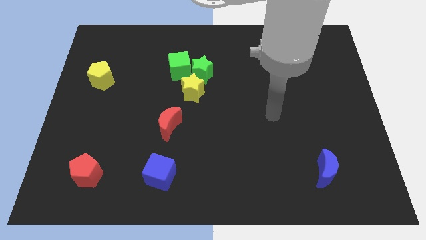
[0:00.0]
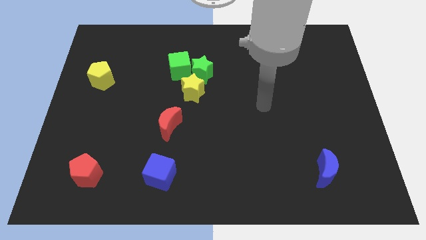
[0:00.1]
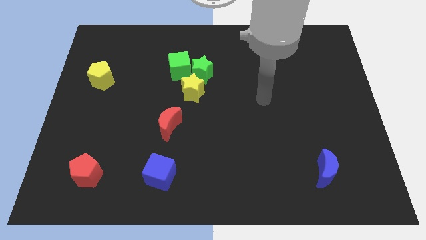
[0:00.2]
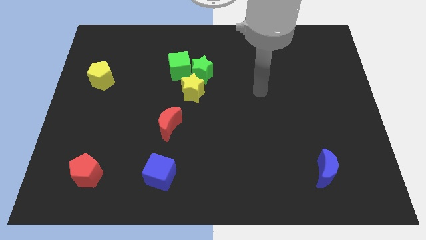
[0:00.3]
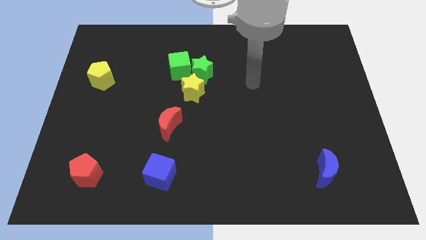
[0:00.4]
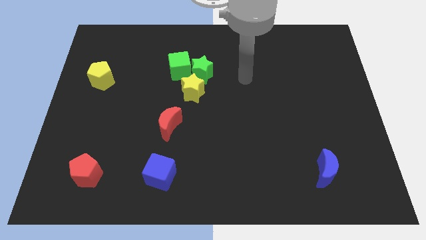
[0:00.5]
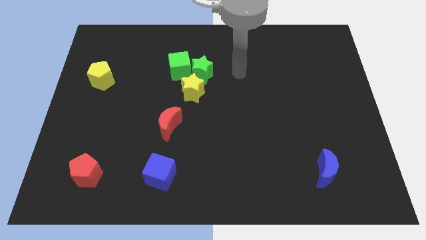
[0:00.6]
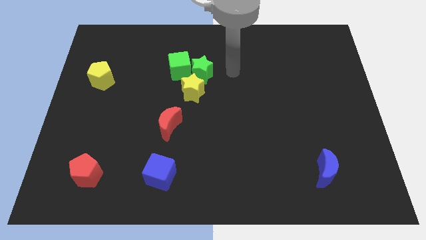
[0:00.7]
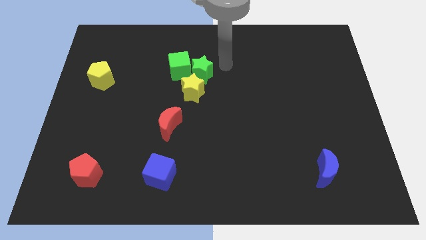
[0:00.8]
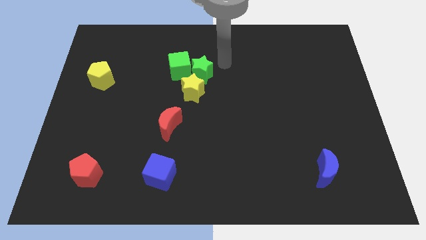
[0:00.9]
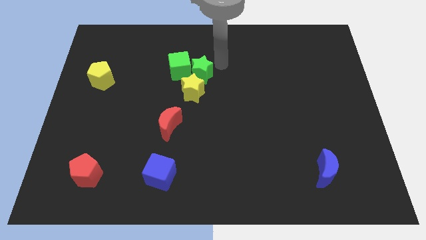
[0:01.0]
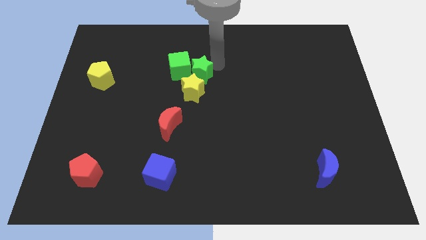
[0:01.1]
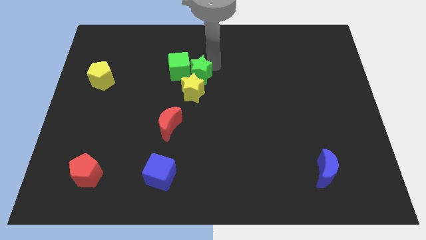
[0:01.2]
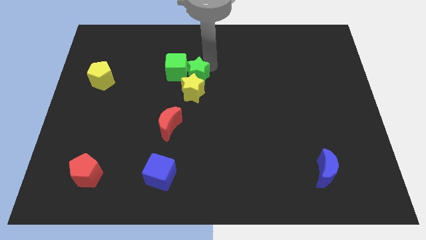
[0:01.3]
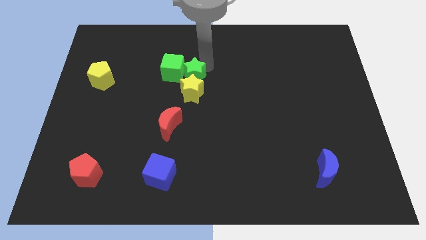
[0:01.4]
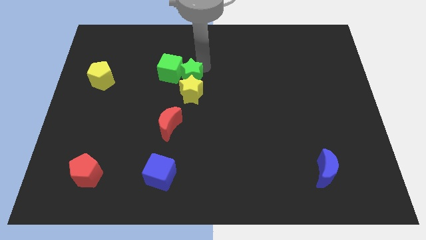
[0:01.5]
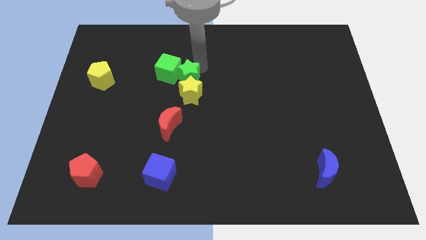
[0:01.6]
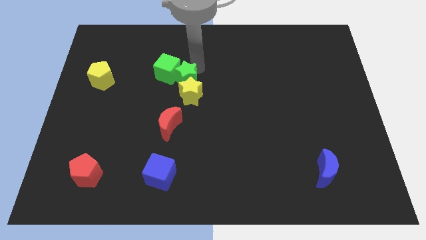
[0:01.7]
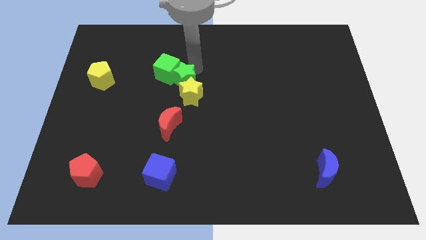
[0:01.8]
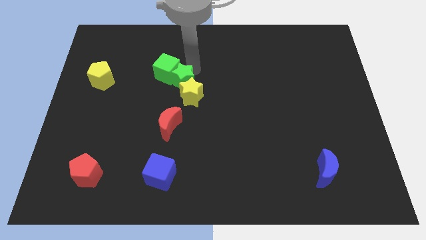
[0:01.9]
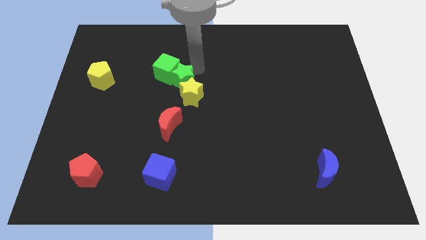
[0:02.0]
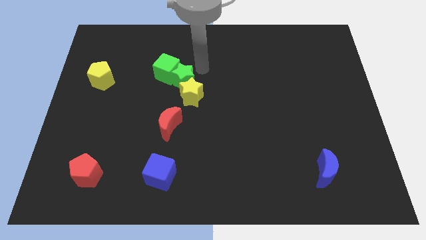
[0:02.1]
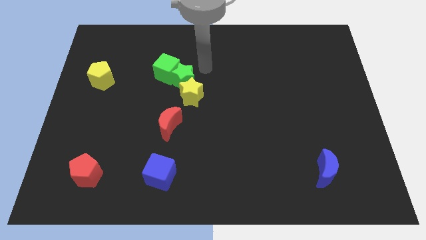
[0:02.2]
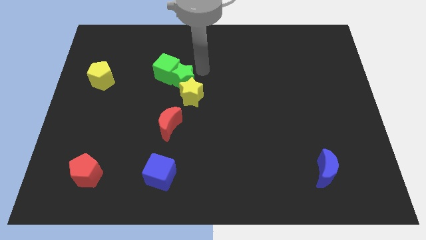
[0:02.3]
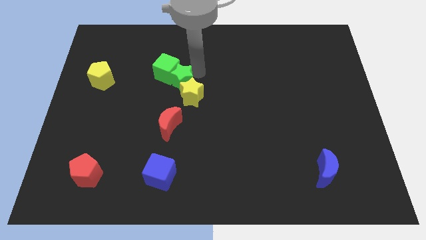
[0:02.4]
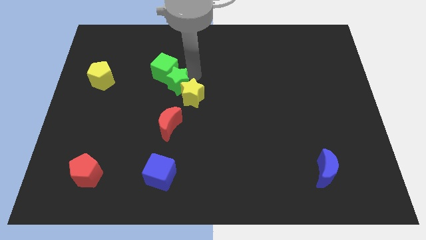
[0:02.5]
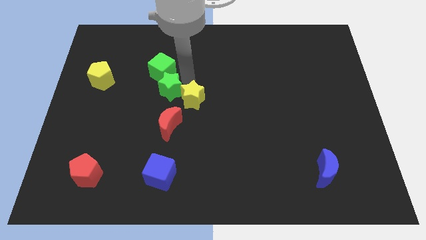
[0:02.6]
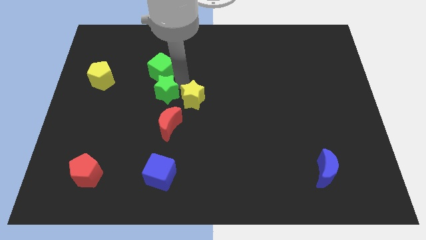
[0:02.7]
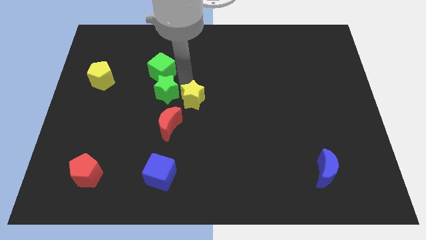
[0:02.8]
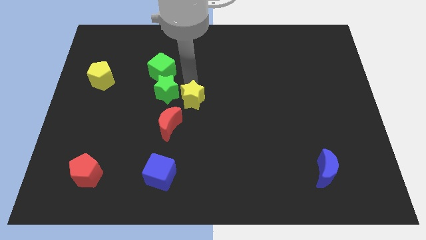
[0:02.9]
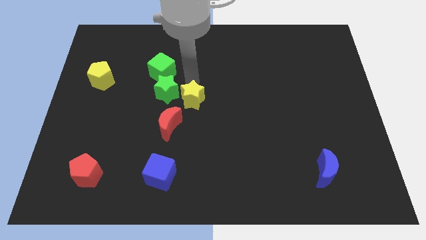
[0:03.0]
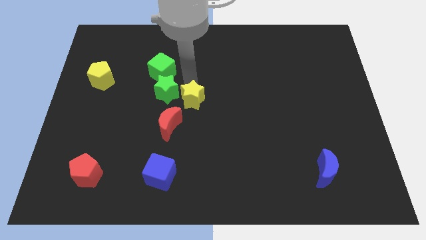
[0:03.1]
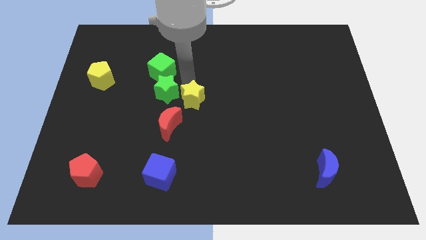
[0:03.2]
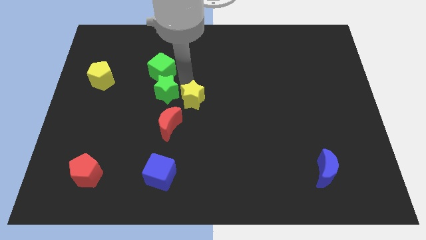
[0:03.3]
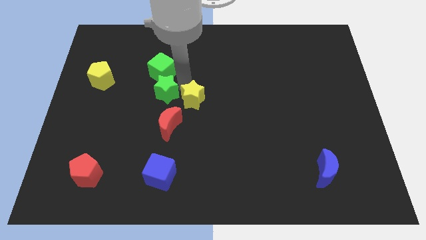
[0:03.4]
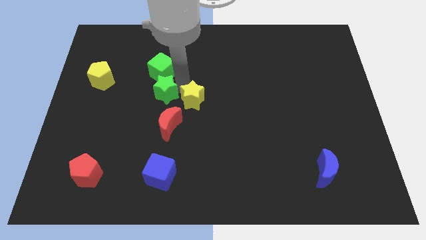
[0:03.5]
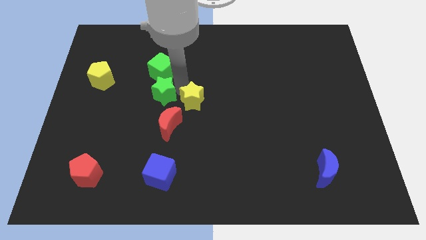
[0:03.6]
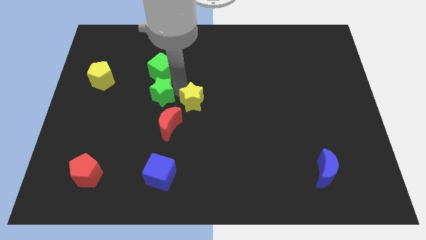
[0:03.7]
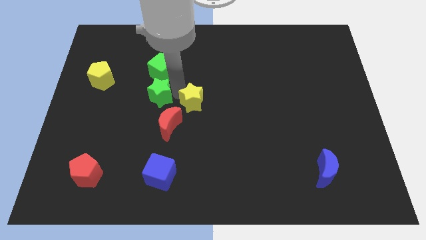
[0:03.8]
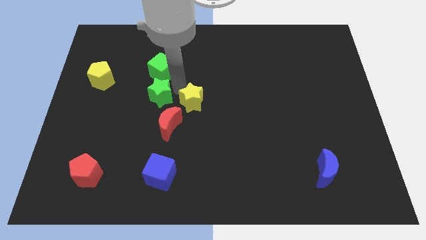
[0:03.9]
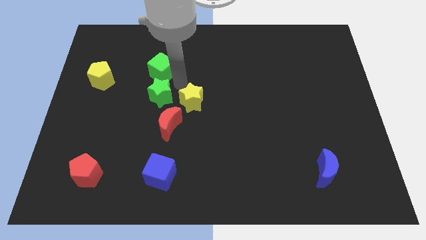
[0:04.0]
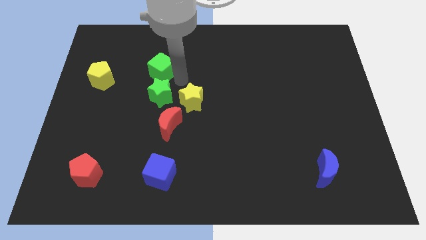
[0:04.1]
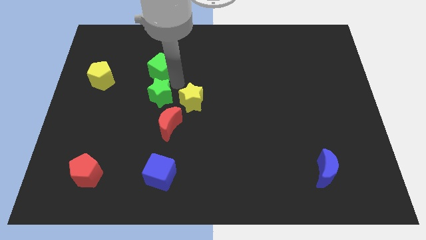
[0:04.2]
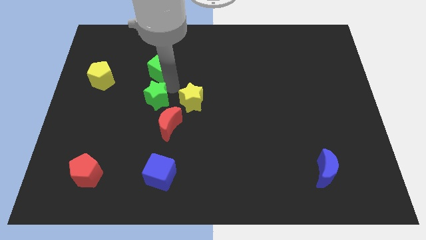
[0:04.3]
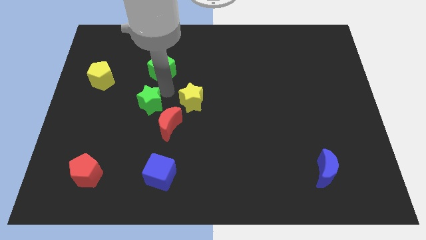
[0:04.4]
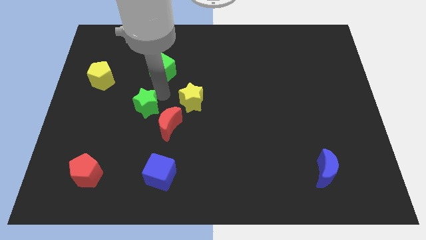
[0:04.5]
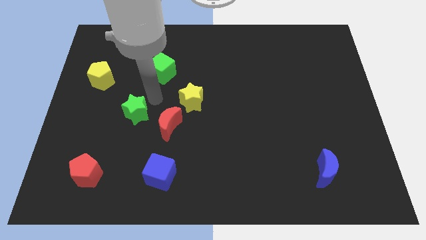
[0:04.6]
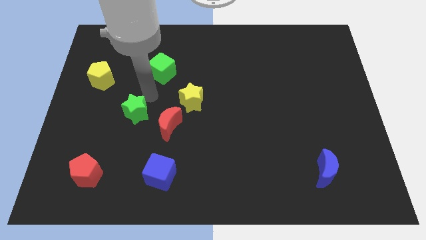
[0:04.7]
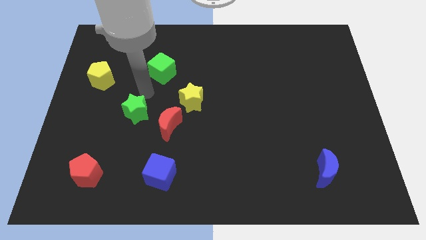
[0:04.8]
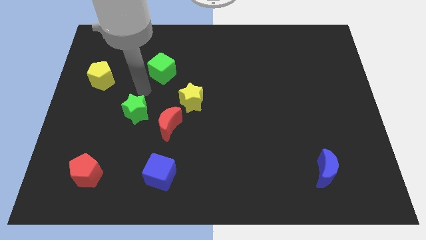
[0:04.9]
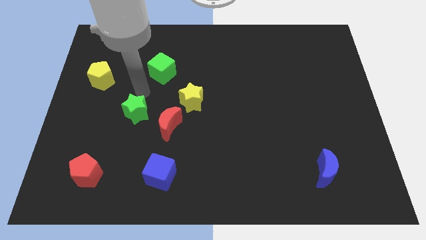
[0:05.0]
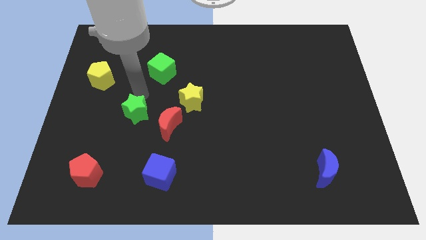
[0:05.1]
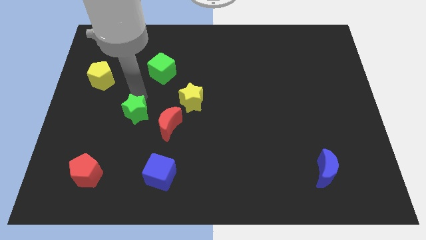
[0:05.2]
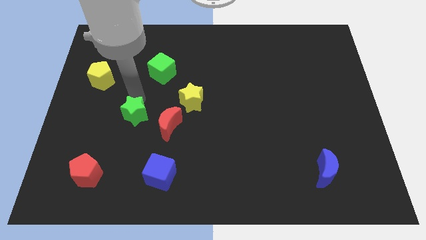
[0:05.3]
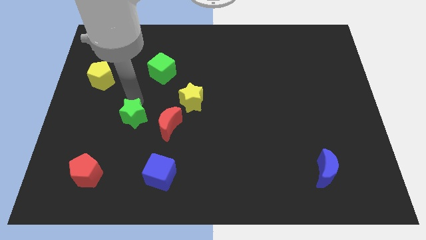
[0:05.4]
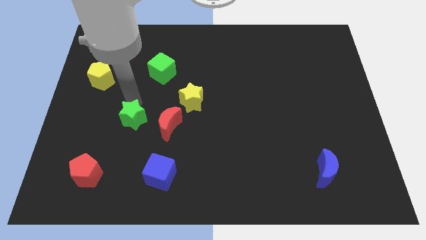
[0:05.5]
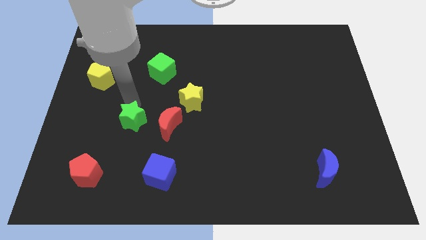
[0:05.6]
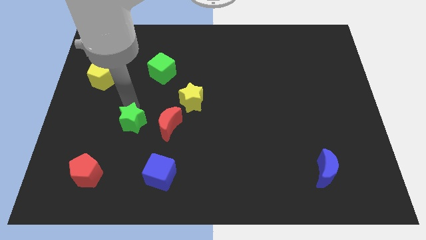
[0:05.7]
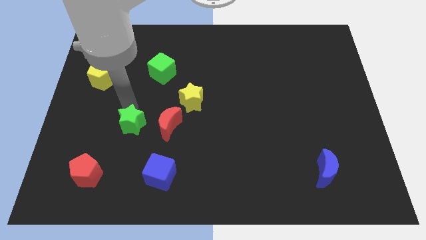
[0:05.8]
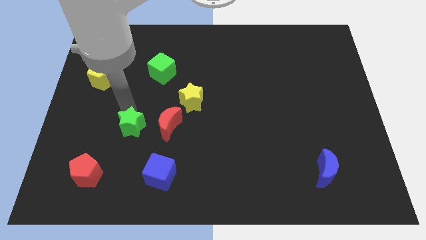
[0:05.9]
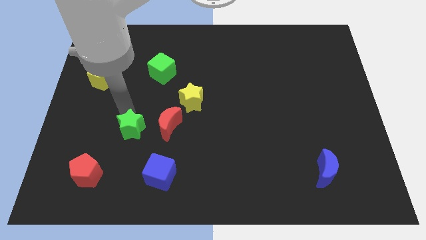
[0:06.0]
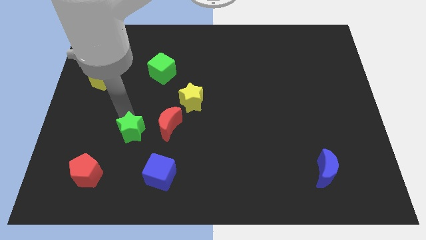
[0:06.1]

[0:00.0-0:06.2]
put the green star to the bottom left side of the red moon
